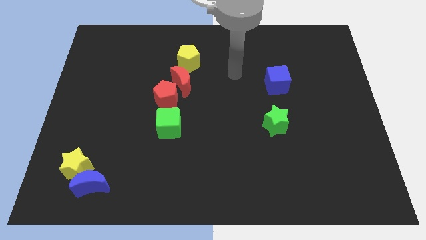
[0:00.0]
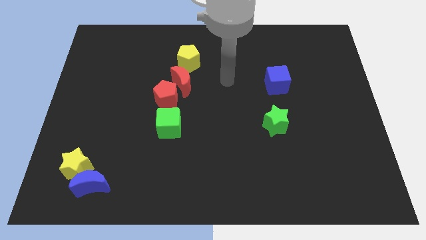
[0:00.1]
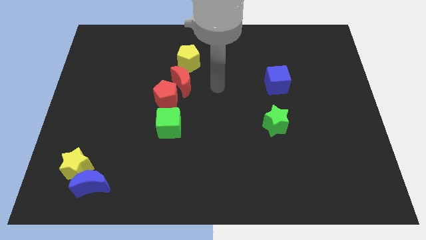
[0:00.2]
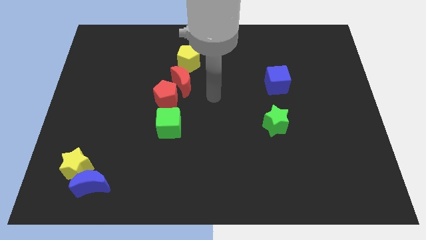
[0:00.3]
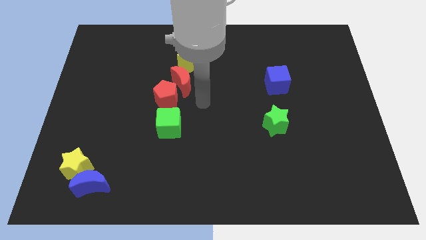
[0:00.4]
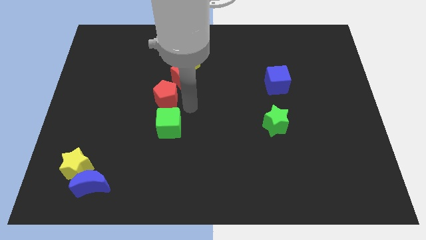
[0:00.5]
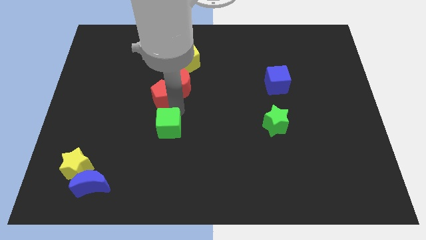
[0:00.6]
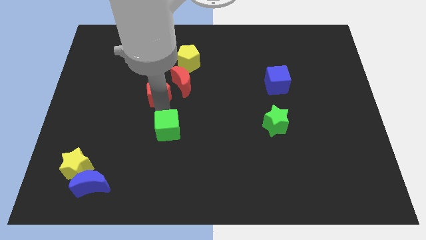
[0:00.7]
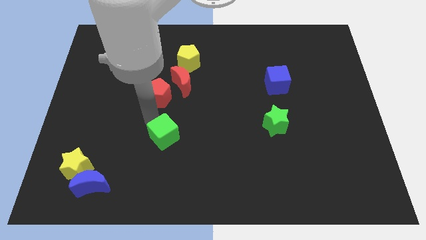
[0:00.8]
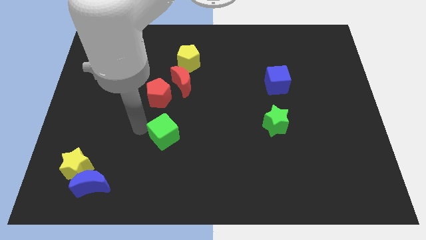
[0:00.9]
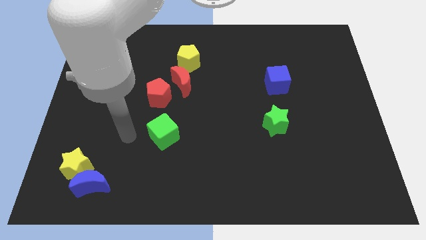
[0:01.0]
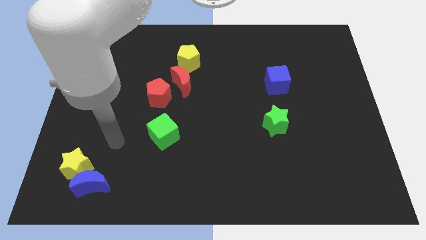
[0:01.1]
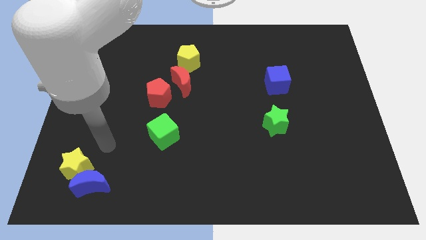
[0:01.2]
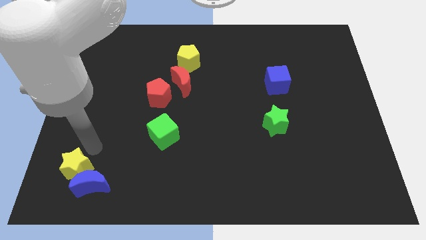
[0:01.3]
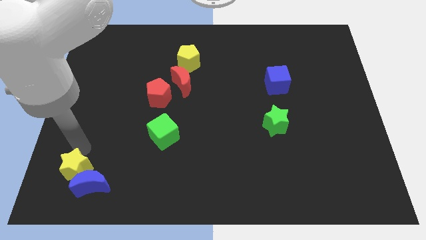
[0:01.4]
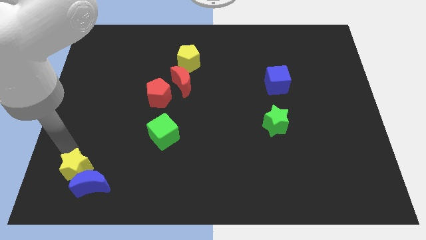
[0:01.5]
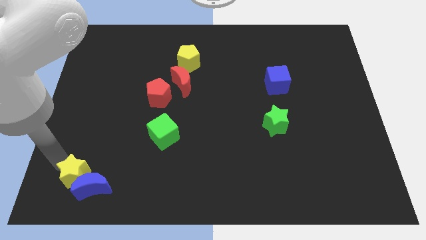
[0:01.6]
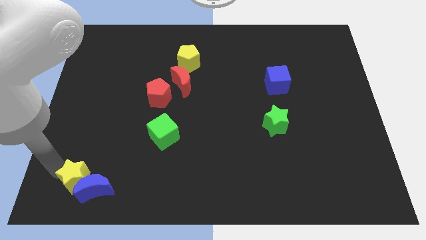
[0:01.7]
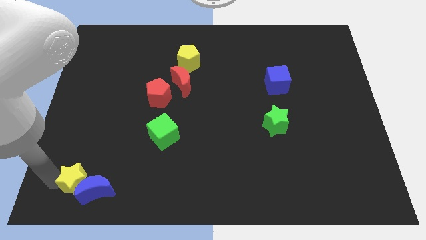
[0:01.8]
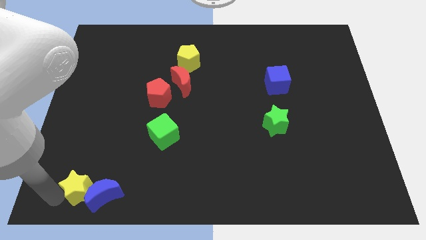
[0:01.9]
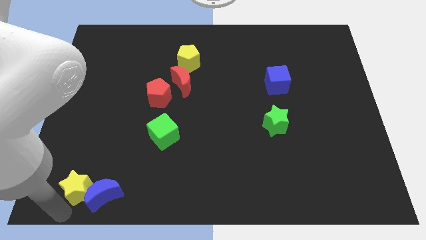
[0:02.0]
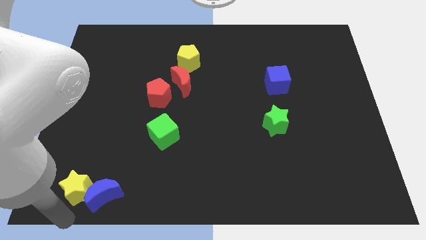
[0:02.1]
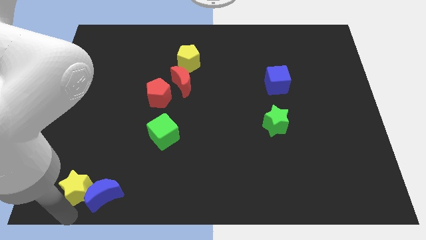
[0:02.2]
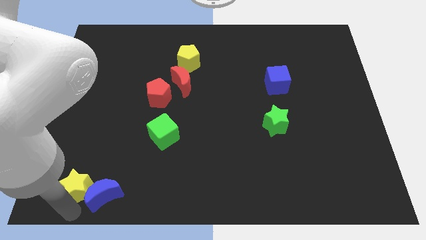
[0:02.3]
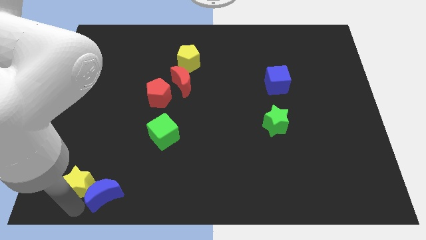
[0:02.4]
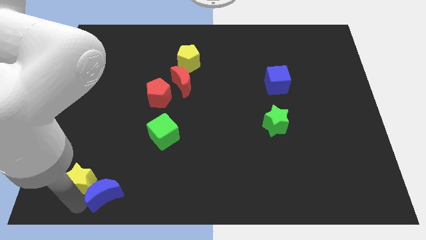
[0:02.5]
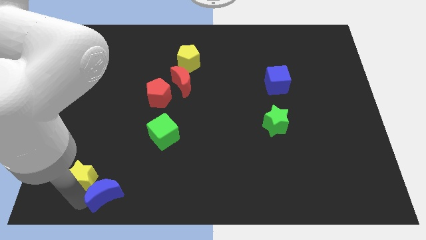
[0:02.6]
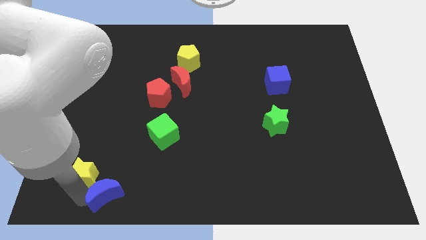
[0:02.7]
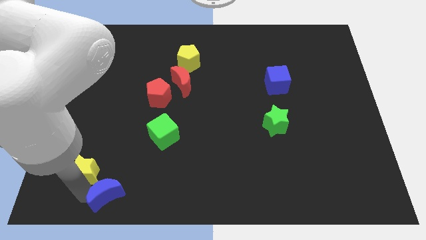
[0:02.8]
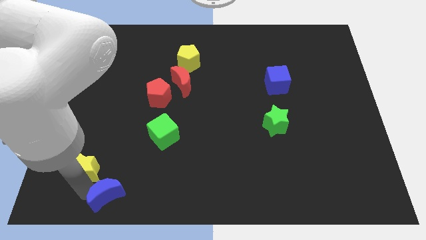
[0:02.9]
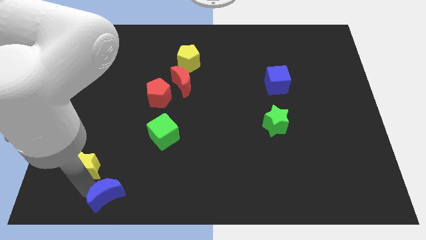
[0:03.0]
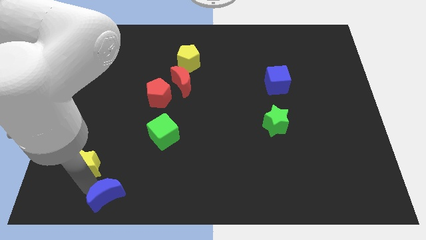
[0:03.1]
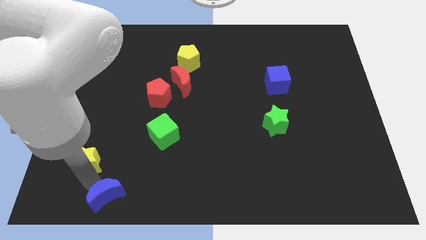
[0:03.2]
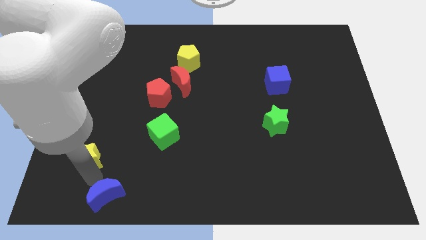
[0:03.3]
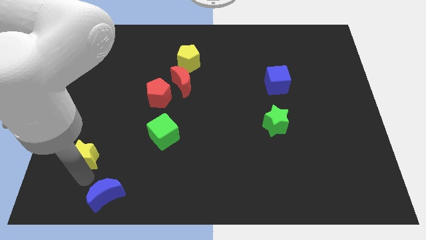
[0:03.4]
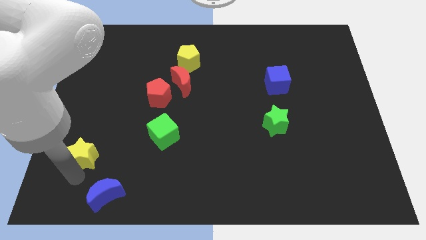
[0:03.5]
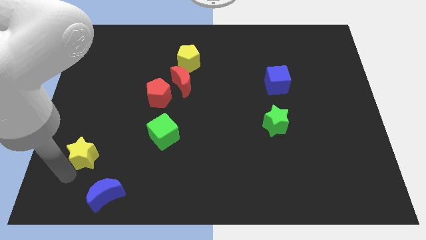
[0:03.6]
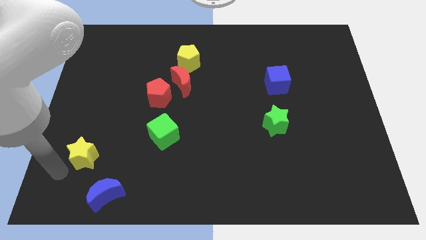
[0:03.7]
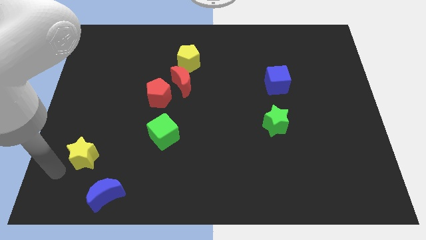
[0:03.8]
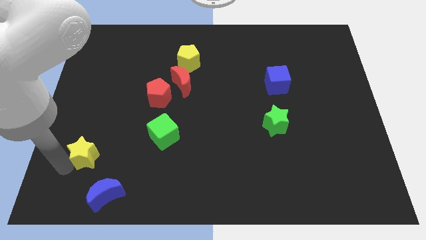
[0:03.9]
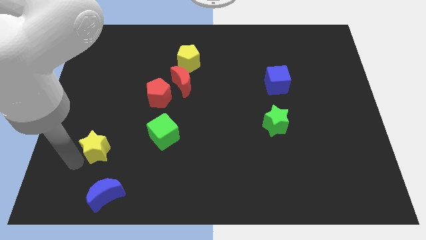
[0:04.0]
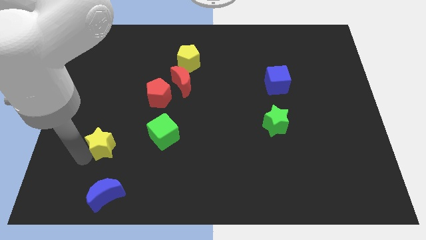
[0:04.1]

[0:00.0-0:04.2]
slide the yellow star up and then to the right somewhat

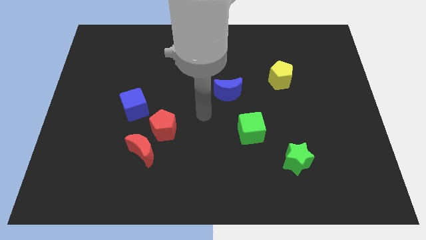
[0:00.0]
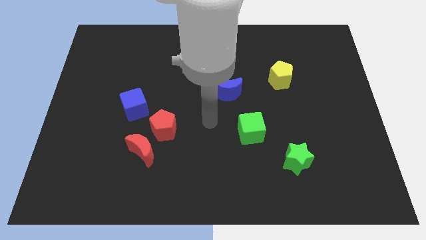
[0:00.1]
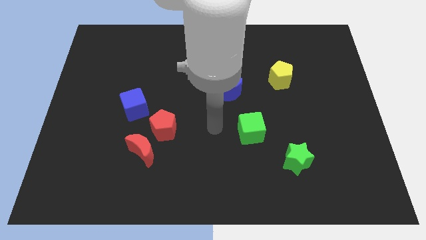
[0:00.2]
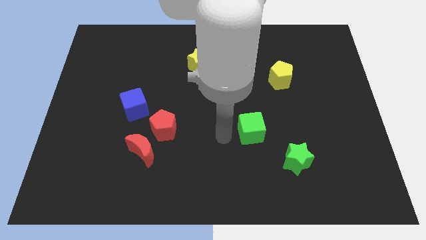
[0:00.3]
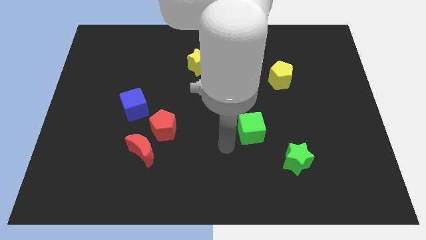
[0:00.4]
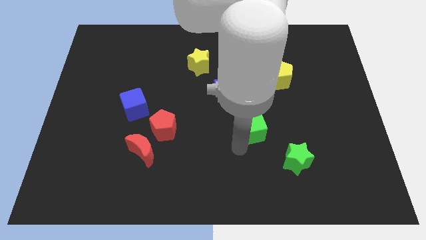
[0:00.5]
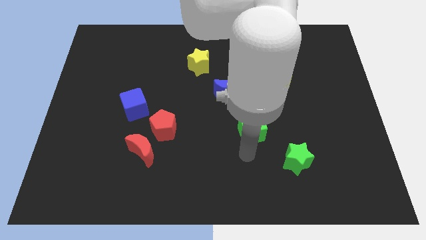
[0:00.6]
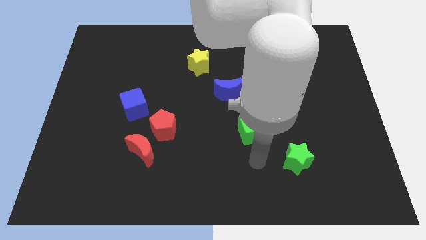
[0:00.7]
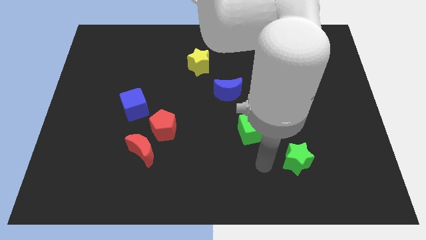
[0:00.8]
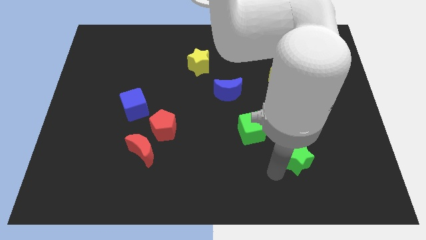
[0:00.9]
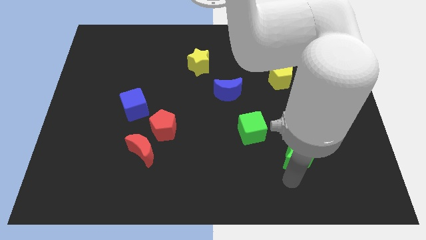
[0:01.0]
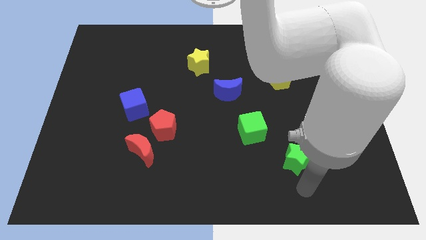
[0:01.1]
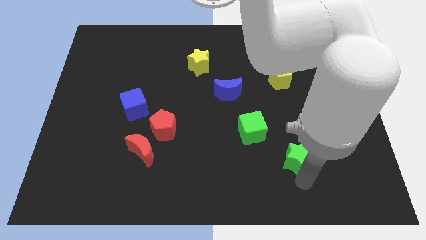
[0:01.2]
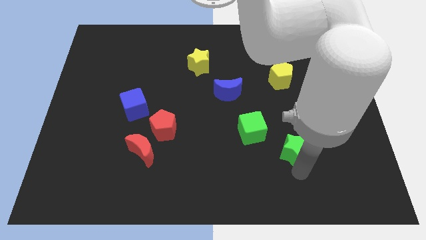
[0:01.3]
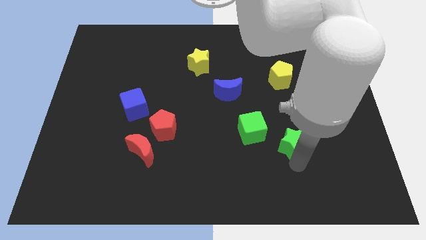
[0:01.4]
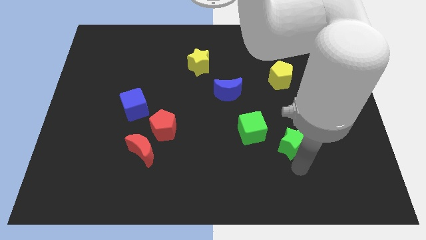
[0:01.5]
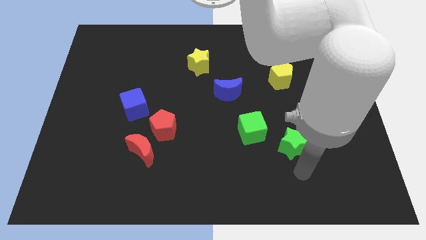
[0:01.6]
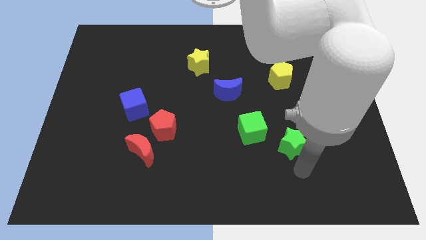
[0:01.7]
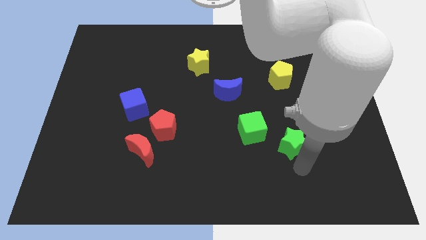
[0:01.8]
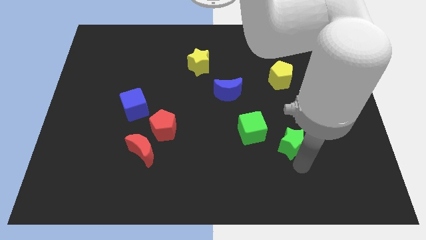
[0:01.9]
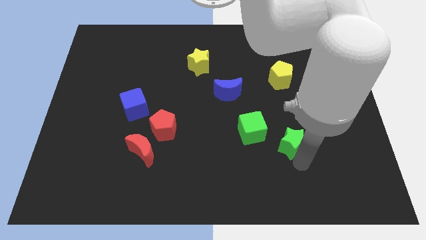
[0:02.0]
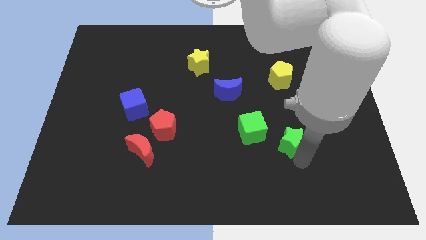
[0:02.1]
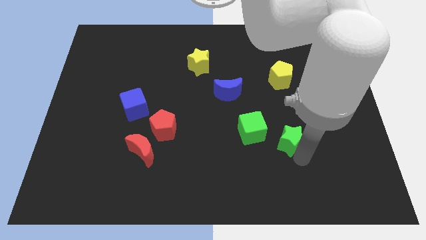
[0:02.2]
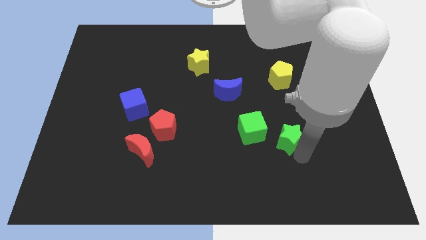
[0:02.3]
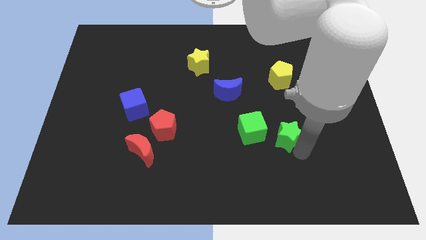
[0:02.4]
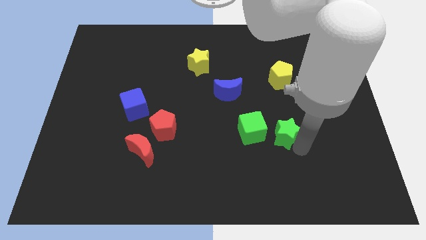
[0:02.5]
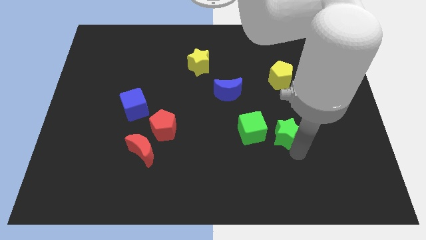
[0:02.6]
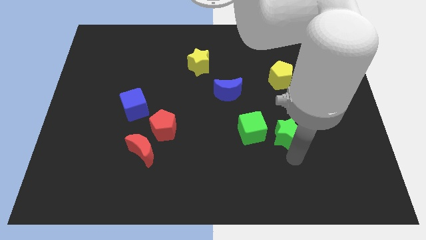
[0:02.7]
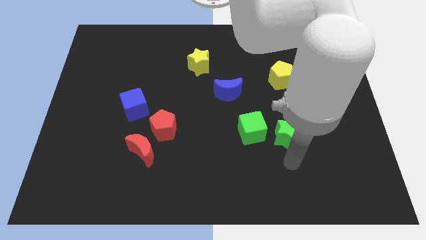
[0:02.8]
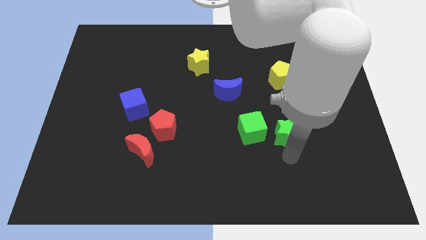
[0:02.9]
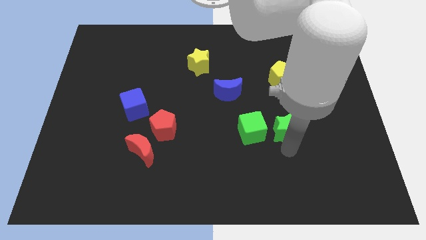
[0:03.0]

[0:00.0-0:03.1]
move the green star upwards a little bit

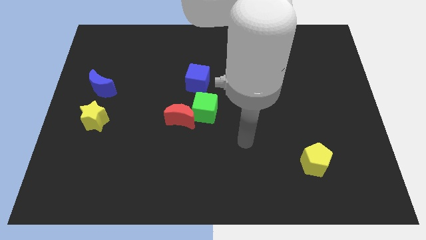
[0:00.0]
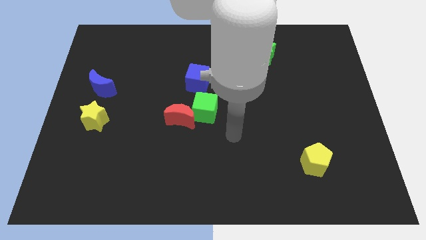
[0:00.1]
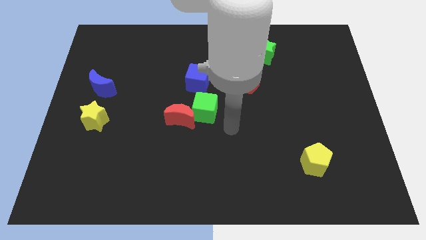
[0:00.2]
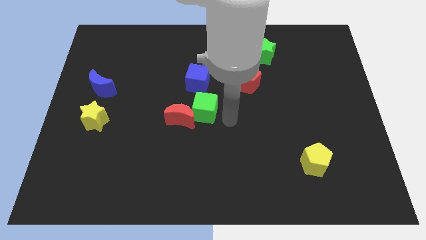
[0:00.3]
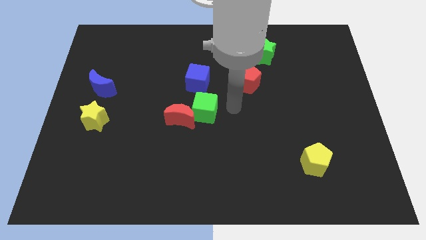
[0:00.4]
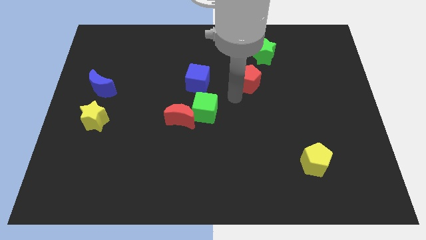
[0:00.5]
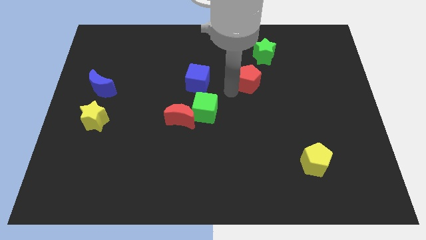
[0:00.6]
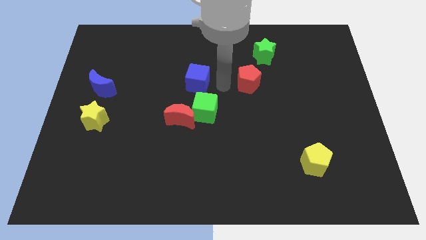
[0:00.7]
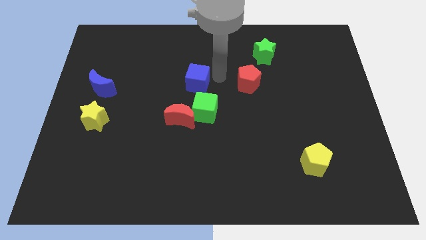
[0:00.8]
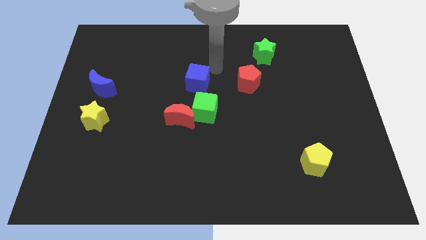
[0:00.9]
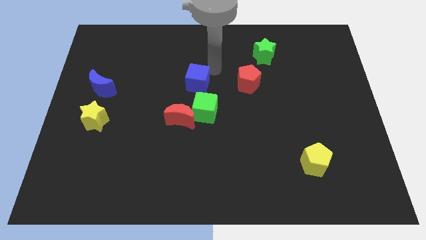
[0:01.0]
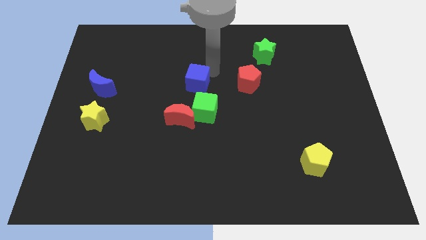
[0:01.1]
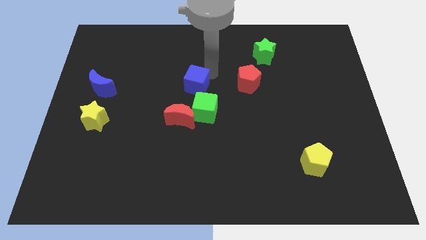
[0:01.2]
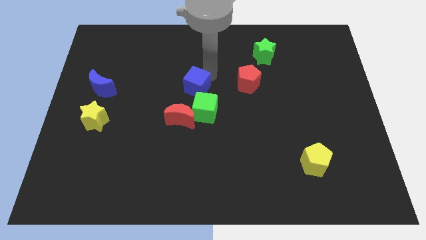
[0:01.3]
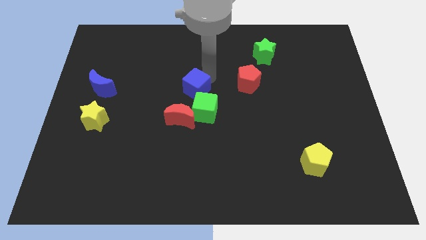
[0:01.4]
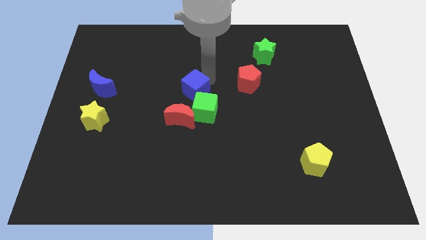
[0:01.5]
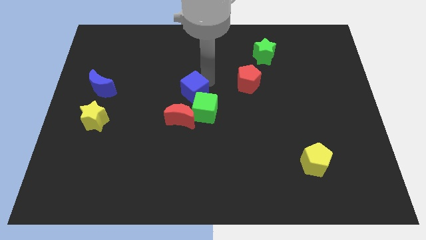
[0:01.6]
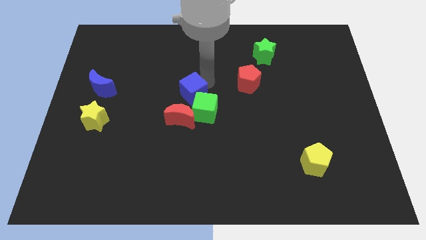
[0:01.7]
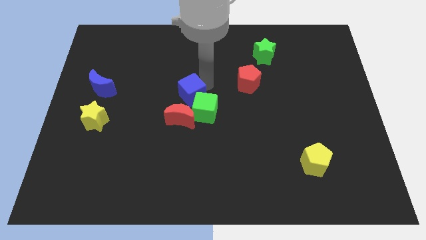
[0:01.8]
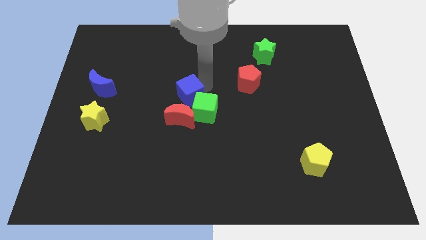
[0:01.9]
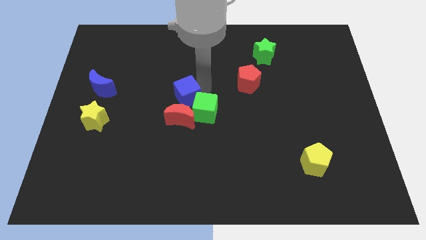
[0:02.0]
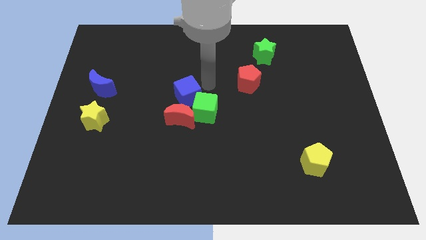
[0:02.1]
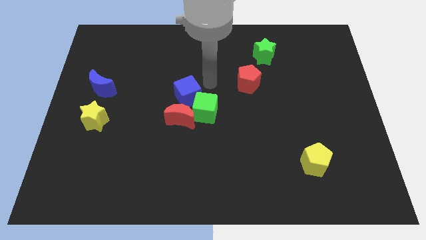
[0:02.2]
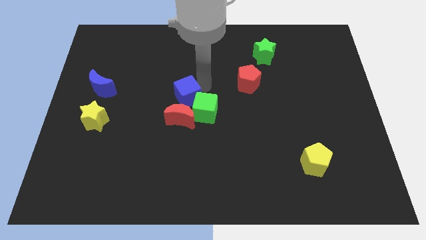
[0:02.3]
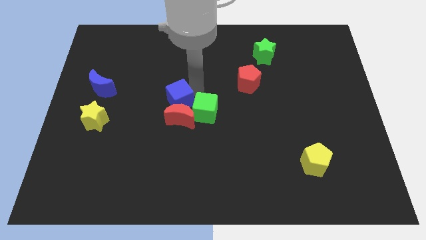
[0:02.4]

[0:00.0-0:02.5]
push the blue cube a little diagonally downwards and left
